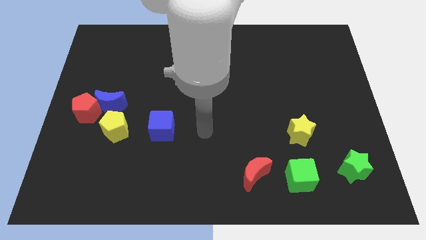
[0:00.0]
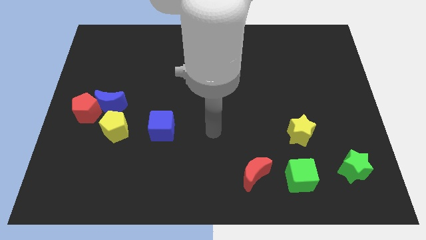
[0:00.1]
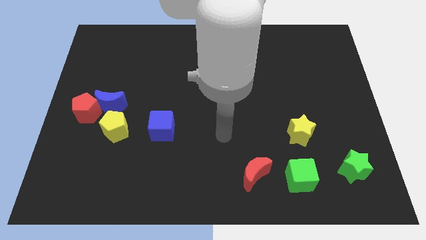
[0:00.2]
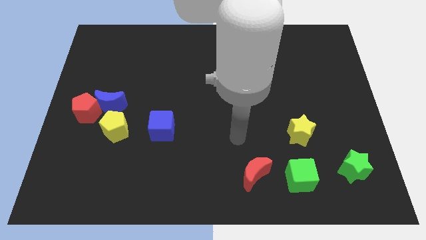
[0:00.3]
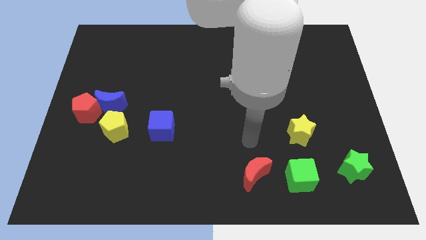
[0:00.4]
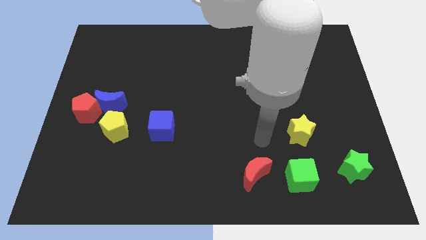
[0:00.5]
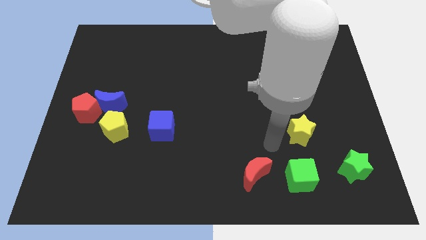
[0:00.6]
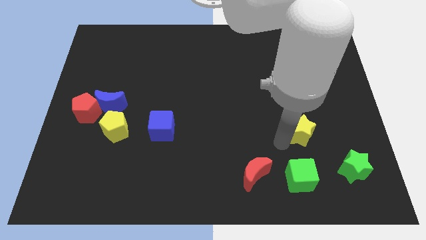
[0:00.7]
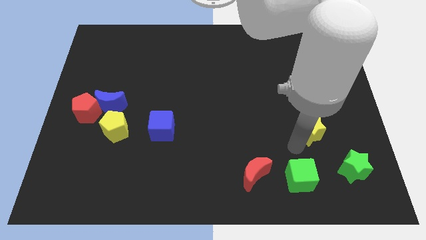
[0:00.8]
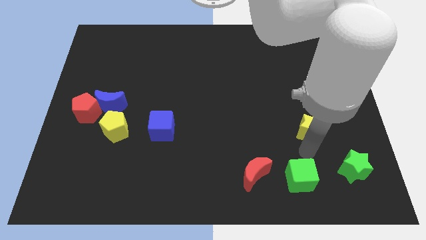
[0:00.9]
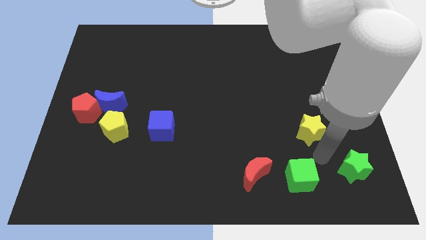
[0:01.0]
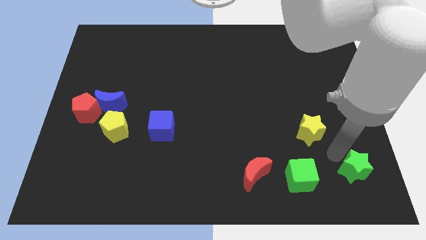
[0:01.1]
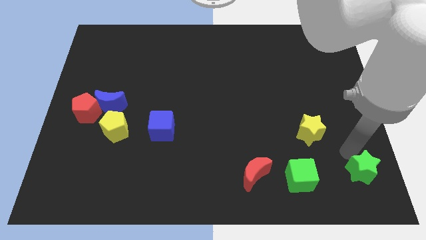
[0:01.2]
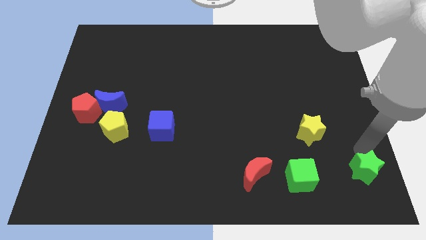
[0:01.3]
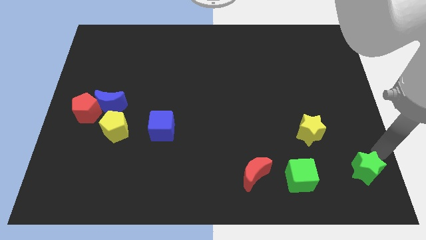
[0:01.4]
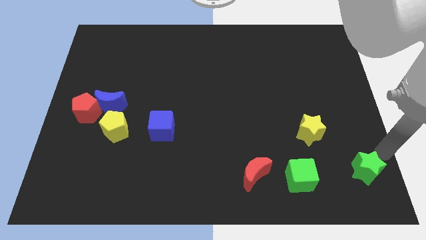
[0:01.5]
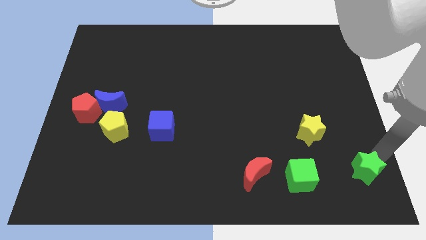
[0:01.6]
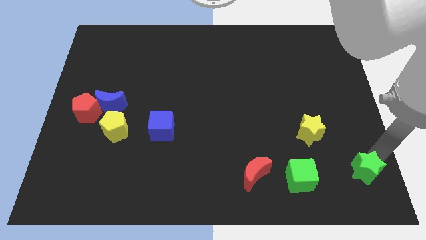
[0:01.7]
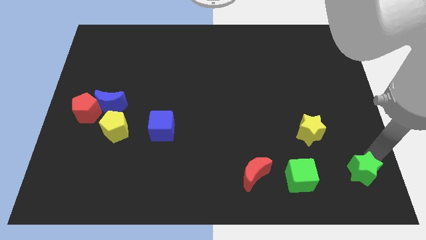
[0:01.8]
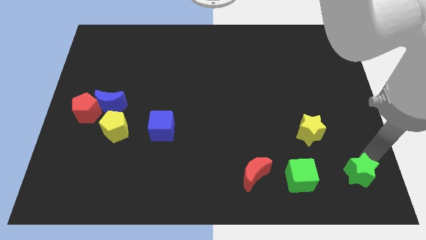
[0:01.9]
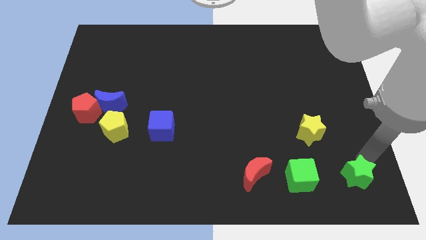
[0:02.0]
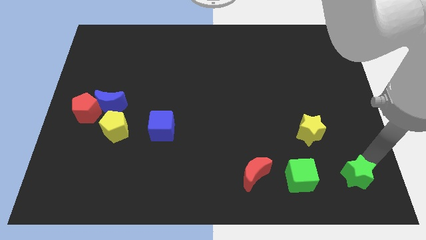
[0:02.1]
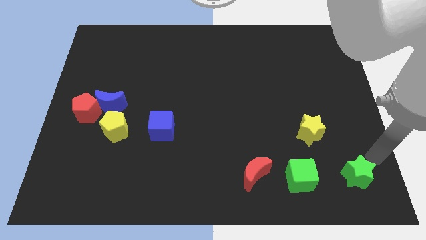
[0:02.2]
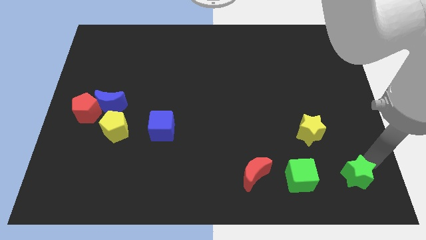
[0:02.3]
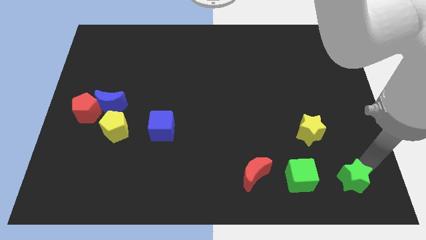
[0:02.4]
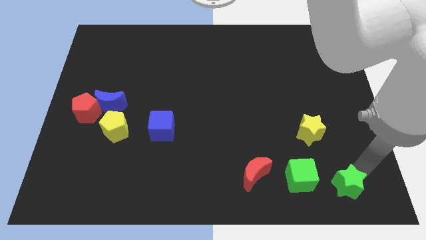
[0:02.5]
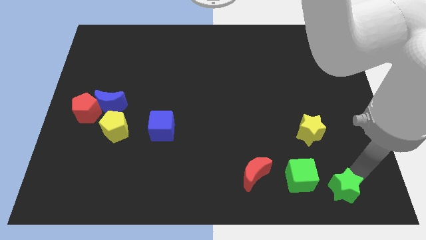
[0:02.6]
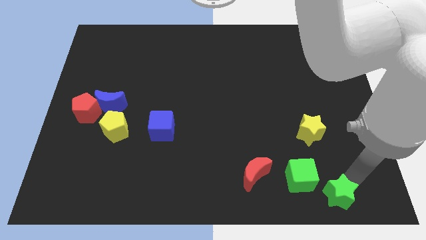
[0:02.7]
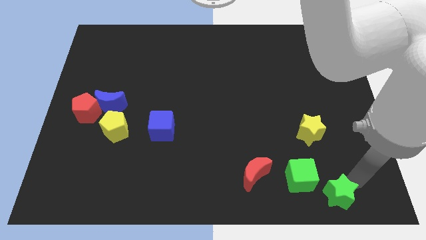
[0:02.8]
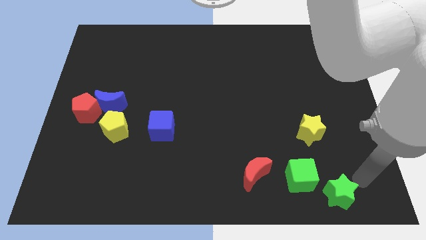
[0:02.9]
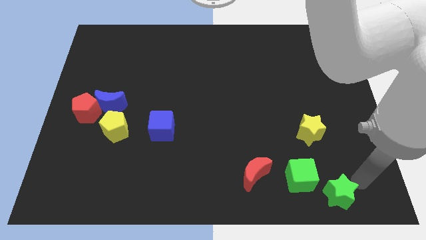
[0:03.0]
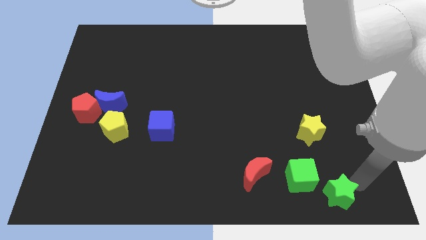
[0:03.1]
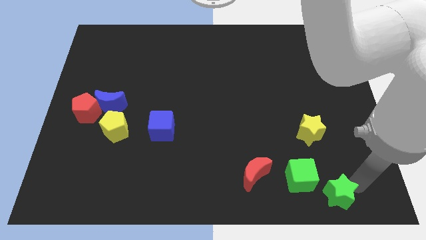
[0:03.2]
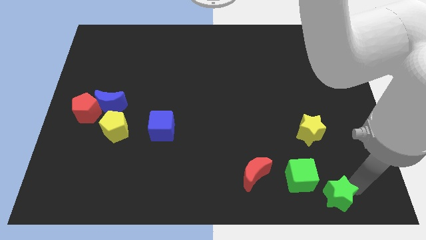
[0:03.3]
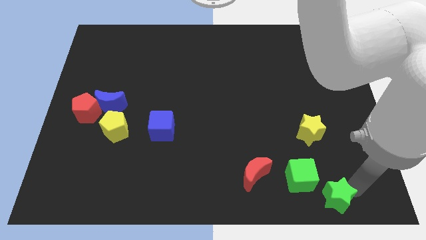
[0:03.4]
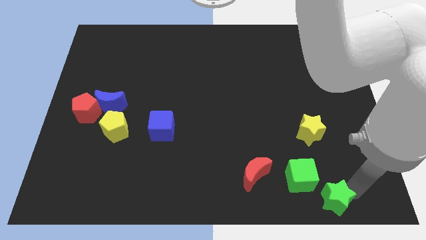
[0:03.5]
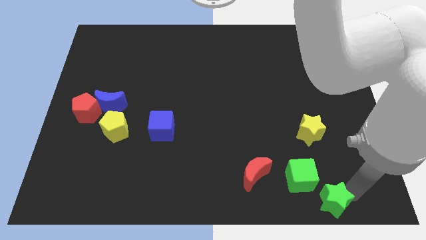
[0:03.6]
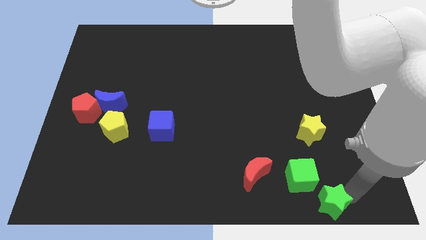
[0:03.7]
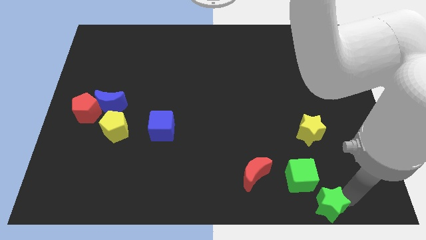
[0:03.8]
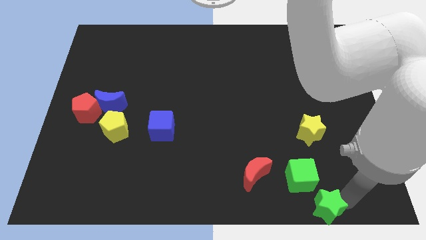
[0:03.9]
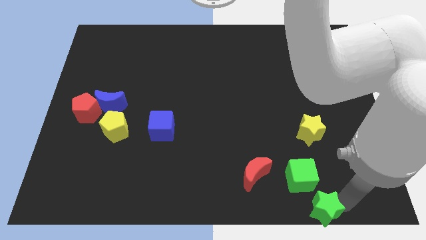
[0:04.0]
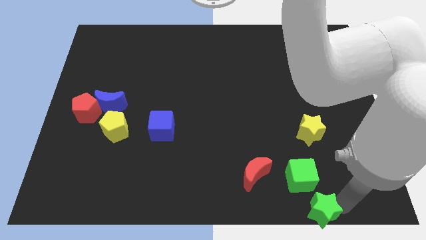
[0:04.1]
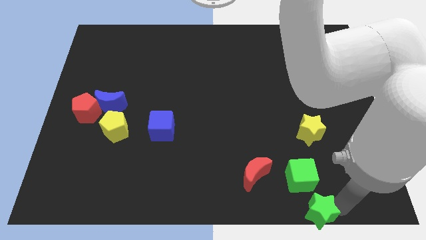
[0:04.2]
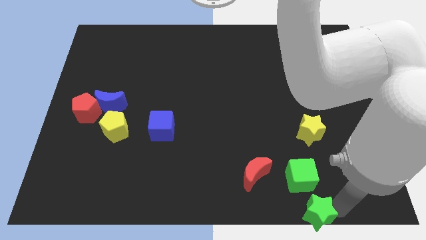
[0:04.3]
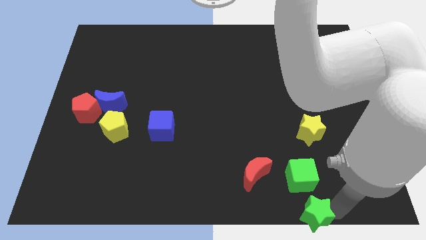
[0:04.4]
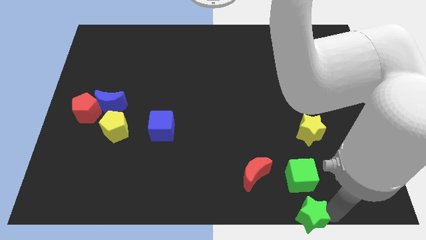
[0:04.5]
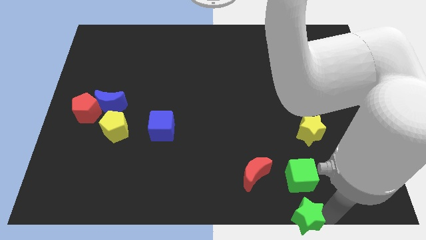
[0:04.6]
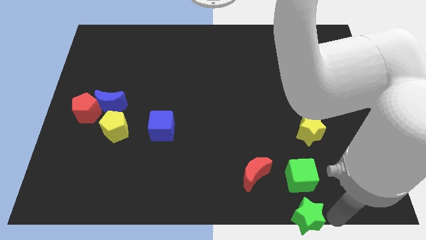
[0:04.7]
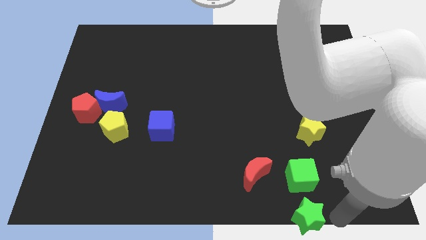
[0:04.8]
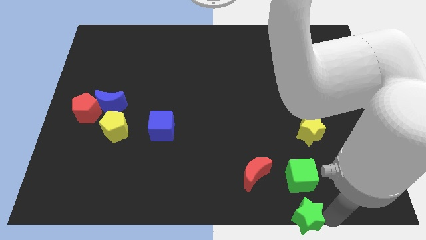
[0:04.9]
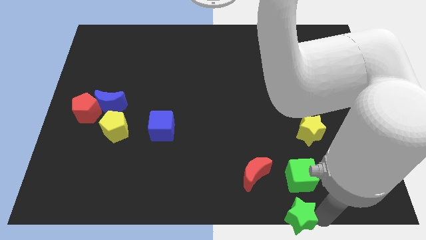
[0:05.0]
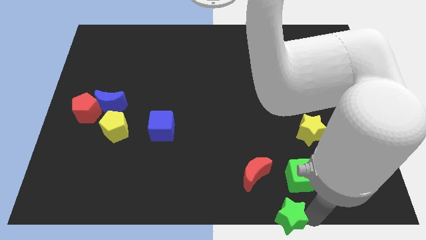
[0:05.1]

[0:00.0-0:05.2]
put the green star to the bottom side

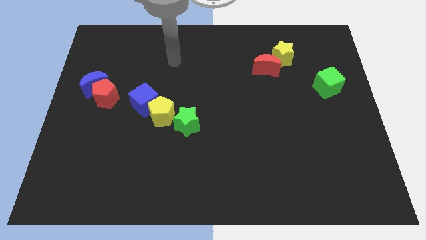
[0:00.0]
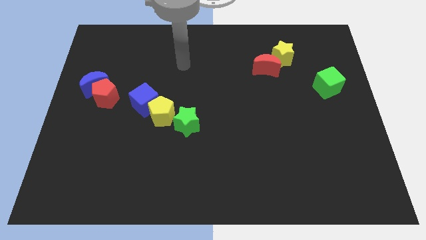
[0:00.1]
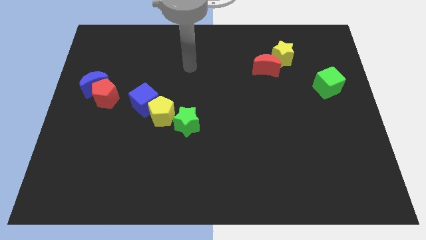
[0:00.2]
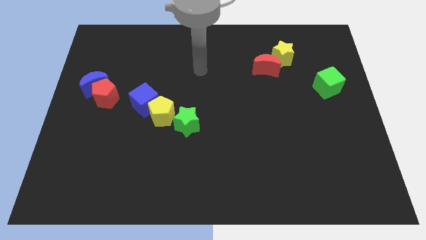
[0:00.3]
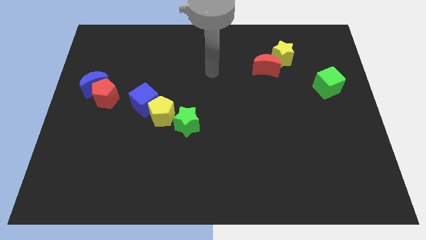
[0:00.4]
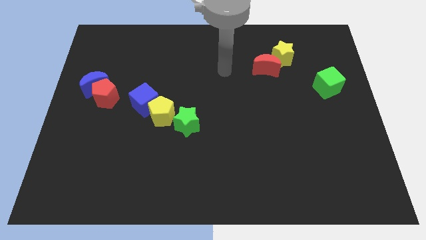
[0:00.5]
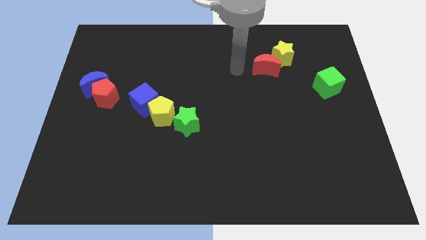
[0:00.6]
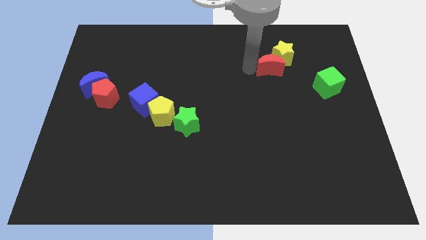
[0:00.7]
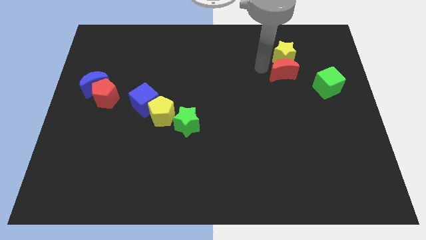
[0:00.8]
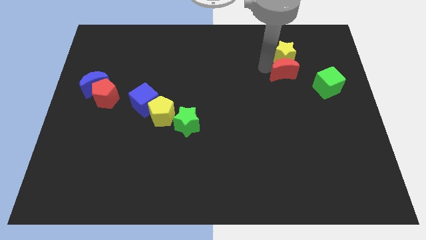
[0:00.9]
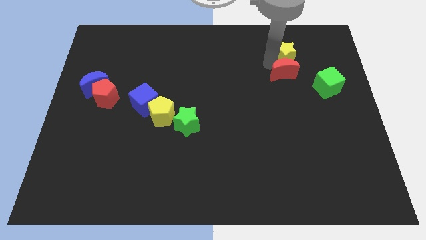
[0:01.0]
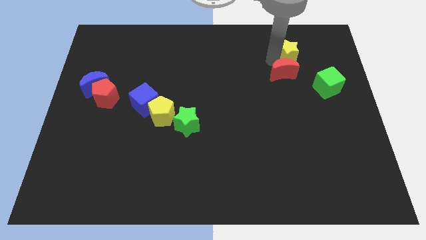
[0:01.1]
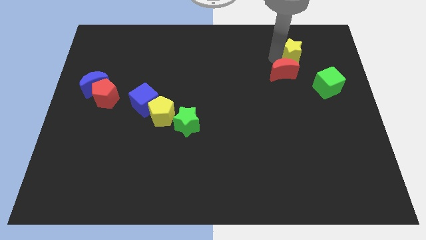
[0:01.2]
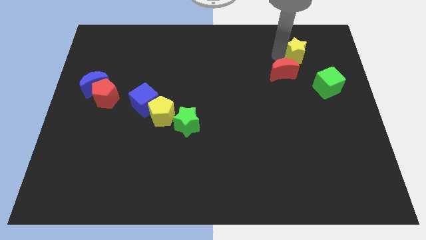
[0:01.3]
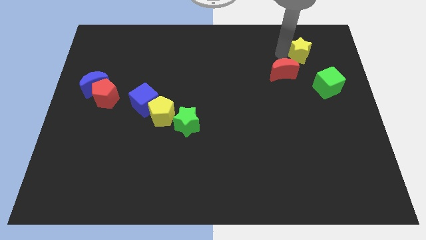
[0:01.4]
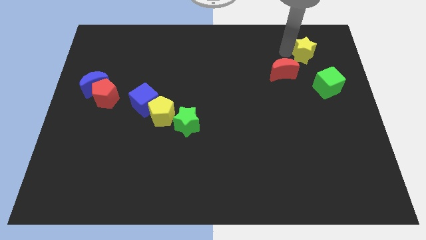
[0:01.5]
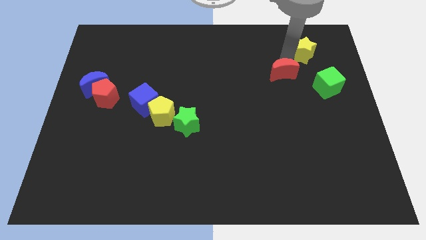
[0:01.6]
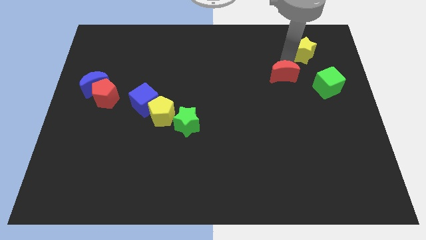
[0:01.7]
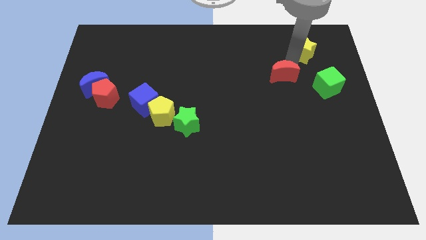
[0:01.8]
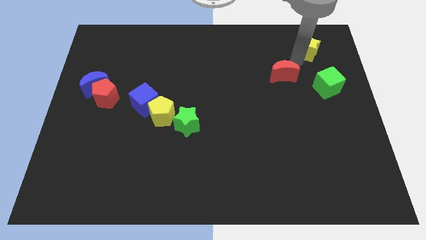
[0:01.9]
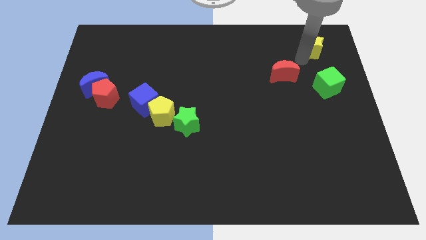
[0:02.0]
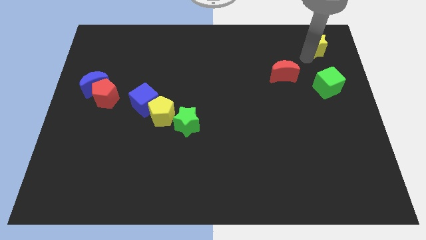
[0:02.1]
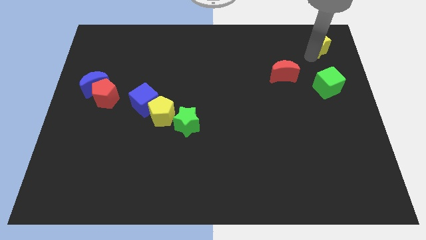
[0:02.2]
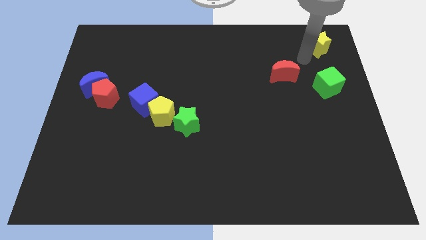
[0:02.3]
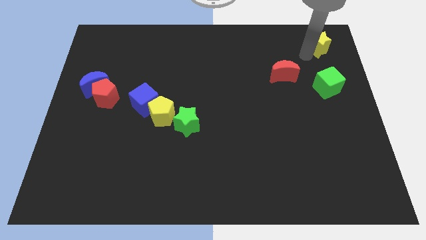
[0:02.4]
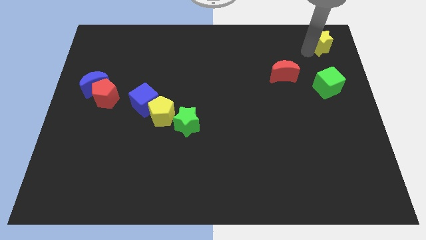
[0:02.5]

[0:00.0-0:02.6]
slide the yellow star to the top right
